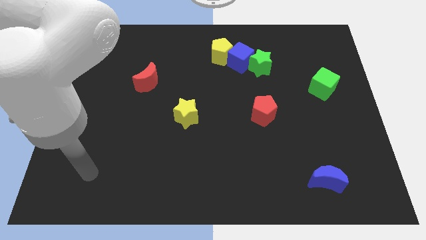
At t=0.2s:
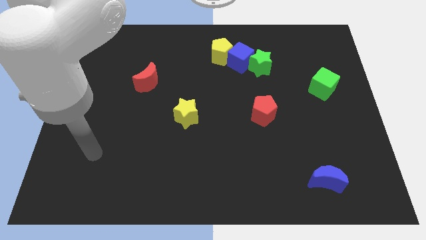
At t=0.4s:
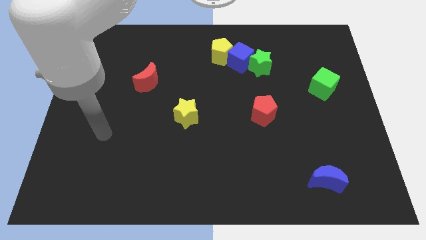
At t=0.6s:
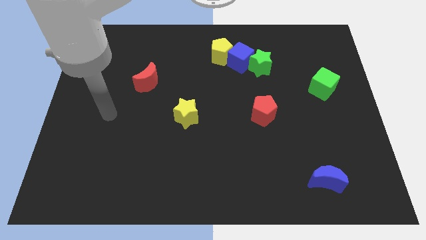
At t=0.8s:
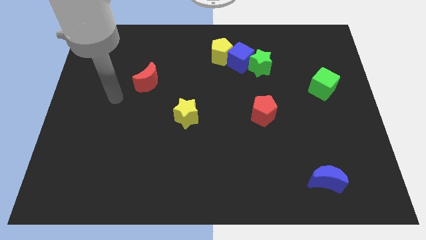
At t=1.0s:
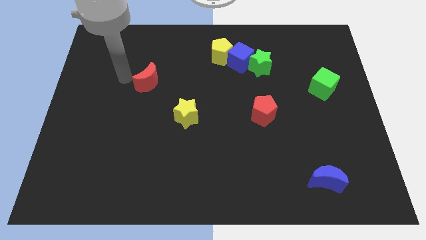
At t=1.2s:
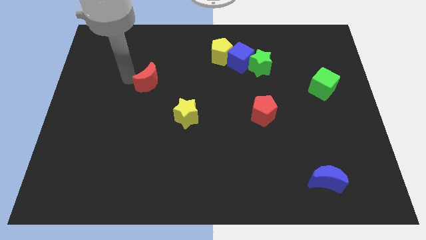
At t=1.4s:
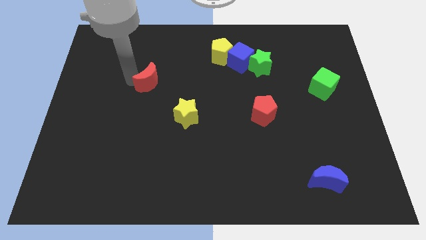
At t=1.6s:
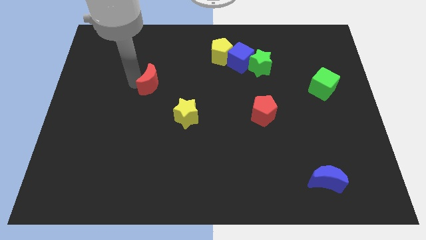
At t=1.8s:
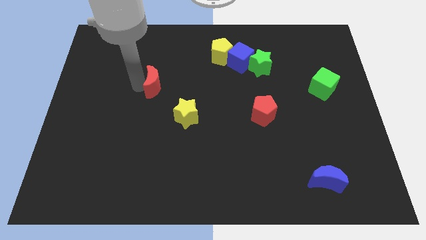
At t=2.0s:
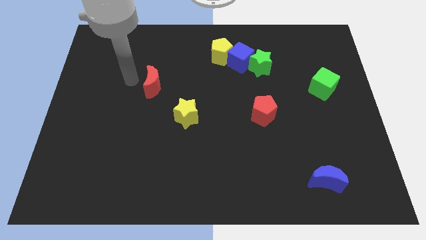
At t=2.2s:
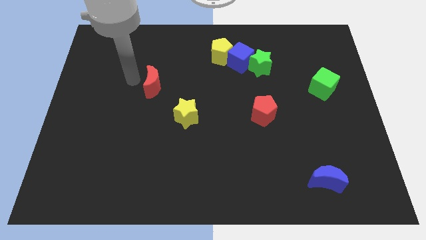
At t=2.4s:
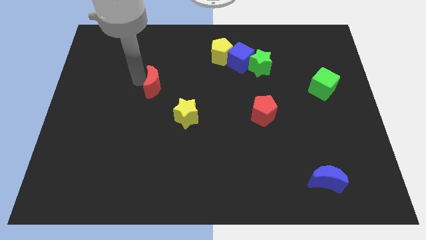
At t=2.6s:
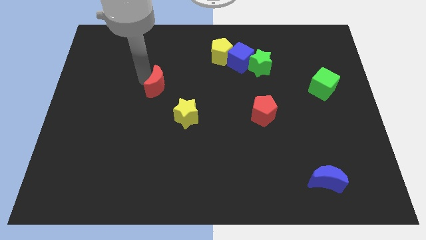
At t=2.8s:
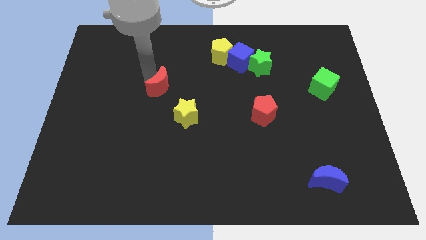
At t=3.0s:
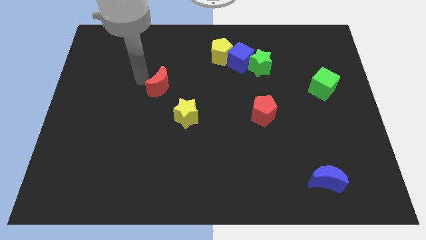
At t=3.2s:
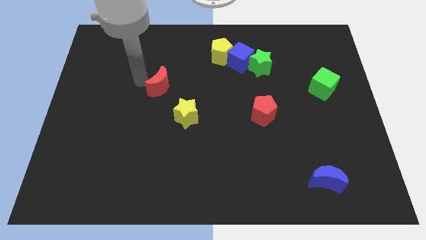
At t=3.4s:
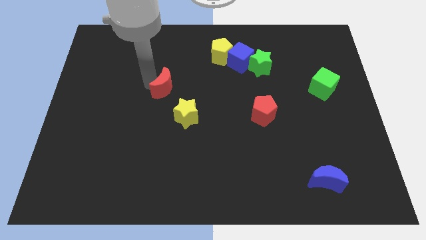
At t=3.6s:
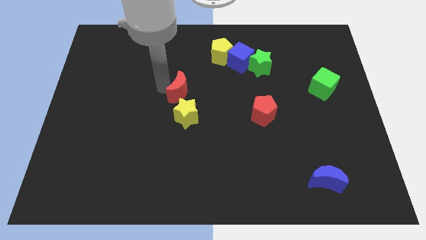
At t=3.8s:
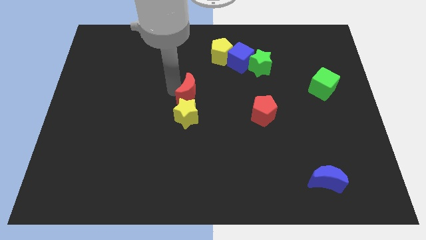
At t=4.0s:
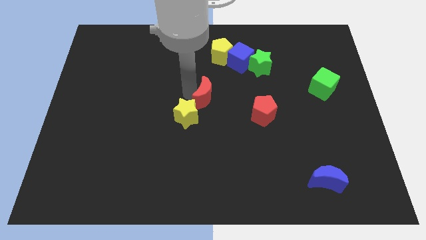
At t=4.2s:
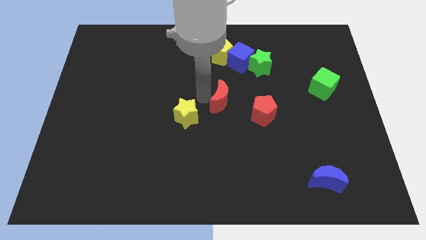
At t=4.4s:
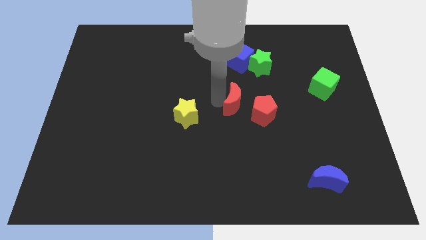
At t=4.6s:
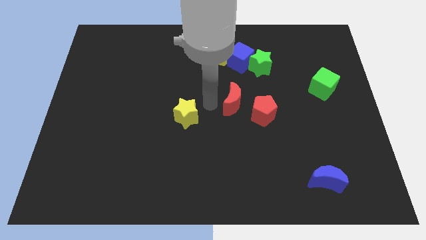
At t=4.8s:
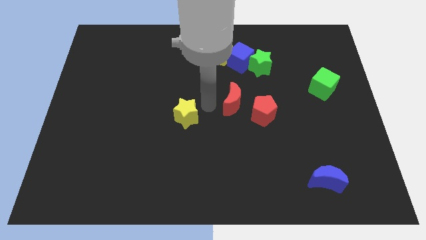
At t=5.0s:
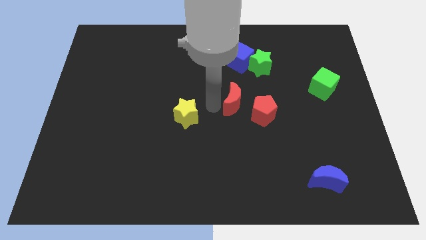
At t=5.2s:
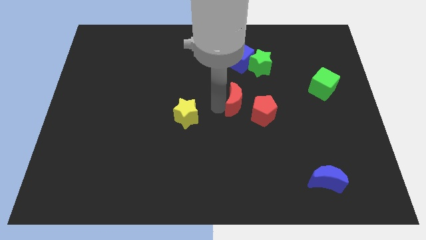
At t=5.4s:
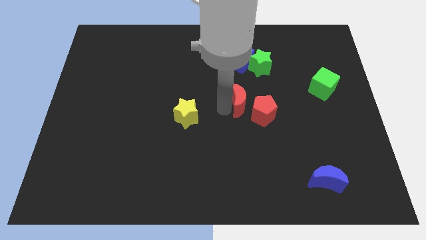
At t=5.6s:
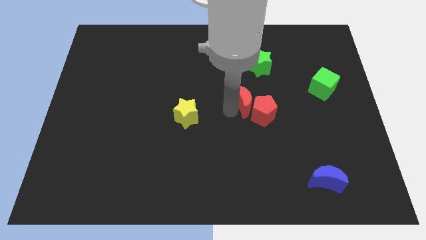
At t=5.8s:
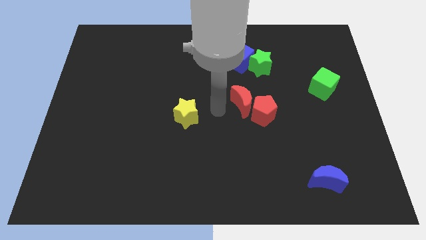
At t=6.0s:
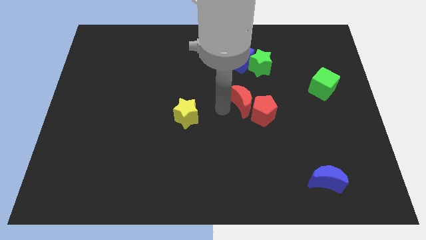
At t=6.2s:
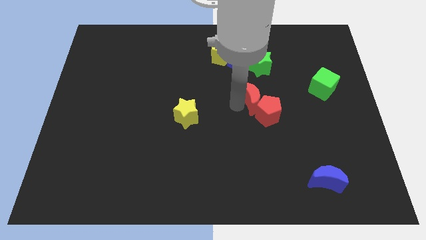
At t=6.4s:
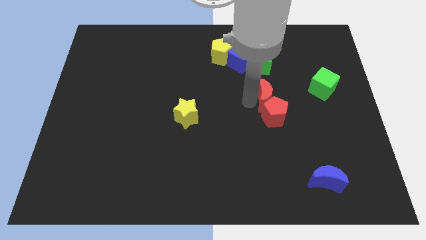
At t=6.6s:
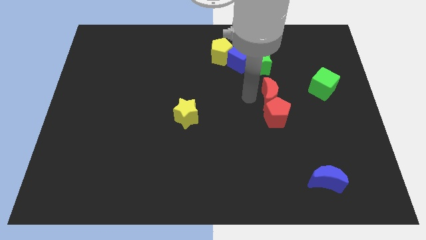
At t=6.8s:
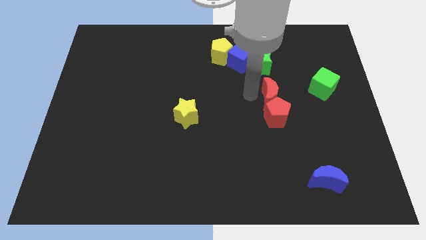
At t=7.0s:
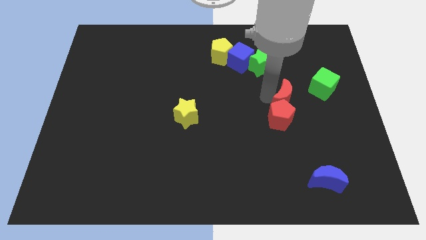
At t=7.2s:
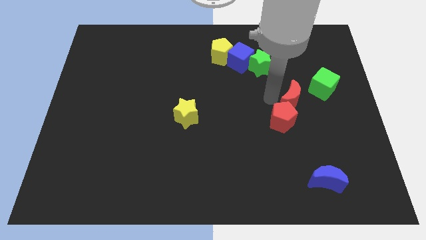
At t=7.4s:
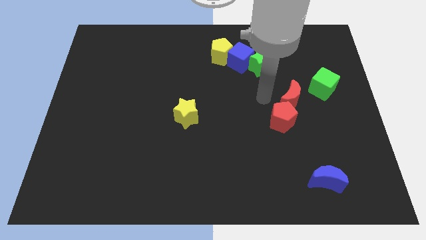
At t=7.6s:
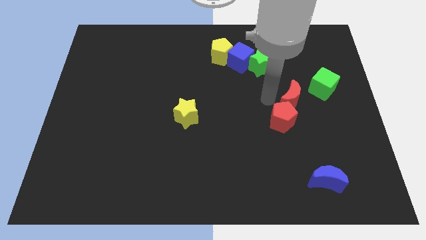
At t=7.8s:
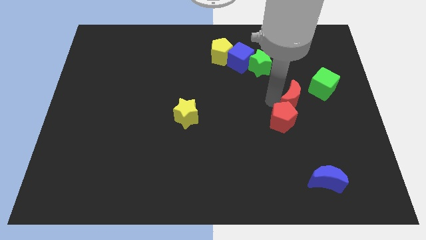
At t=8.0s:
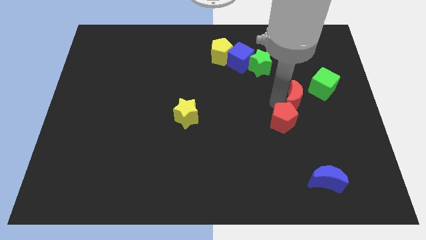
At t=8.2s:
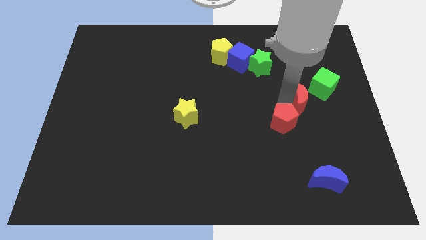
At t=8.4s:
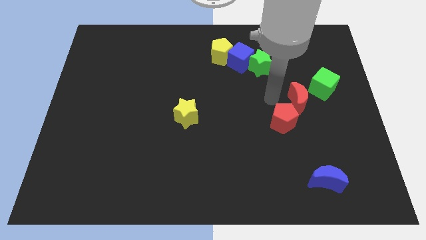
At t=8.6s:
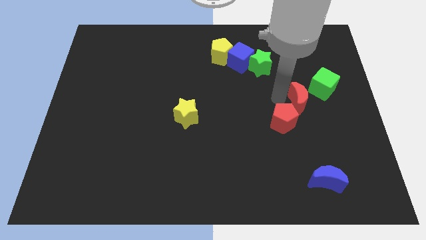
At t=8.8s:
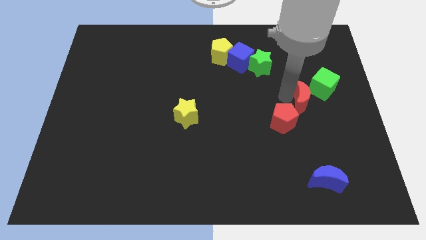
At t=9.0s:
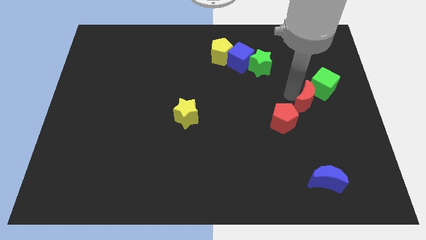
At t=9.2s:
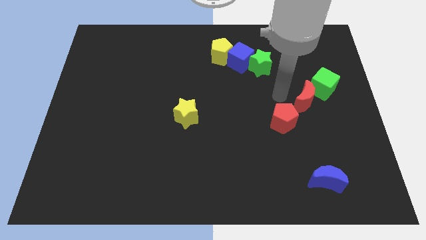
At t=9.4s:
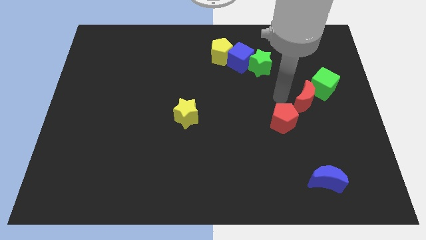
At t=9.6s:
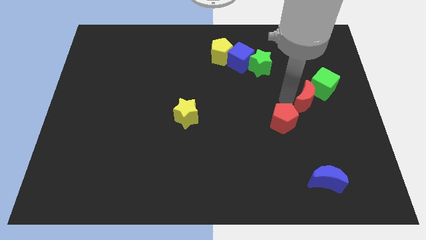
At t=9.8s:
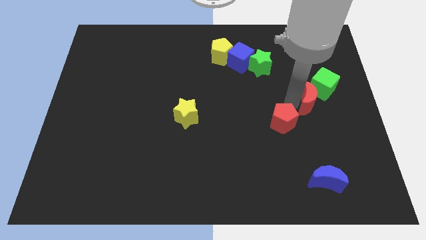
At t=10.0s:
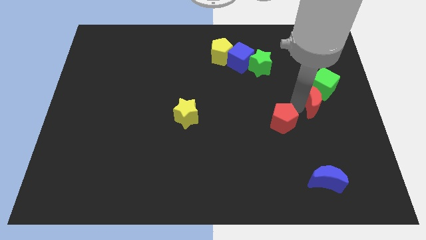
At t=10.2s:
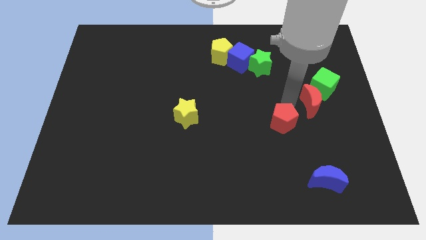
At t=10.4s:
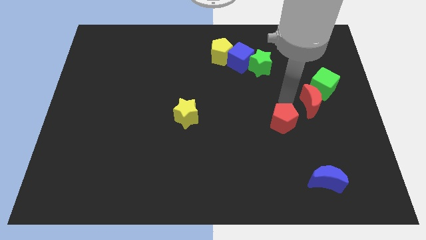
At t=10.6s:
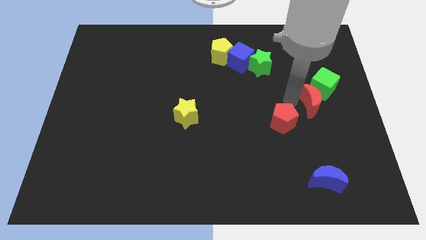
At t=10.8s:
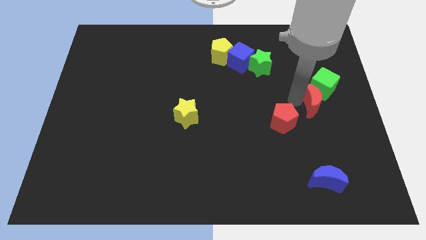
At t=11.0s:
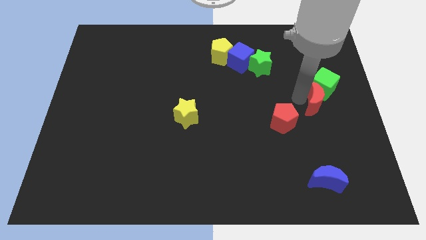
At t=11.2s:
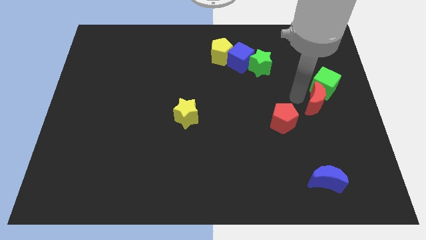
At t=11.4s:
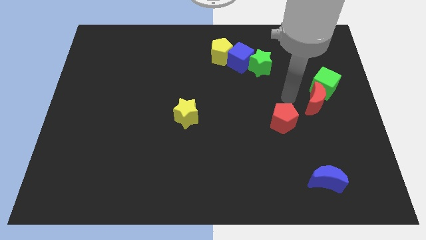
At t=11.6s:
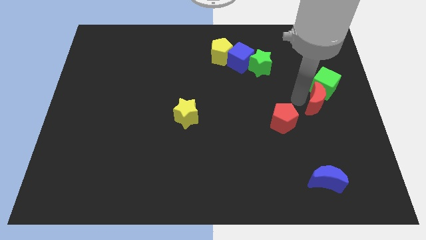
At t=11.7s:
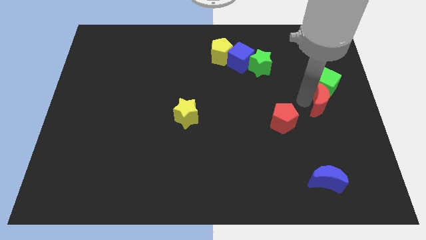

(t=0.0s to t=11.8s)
slide the red moon to the center right

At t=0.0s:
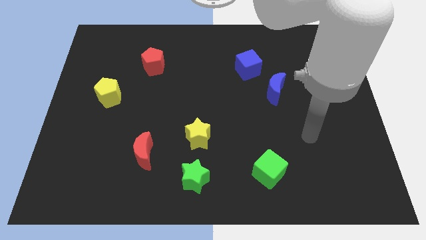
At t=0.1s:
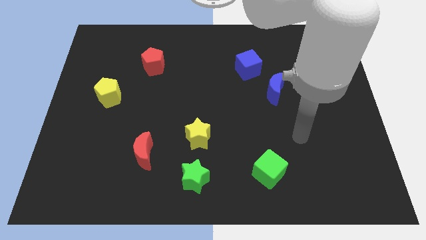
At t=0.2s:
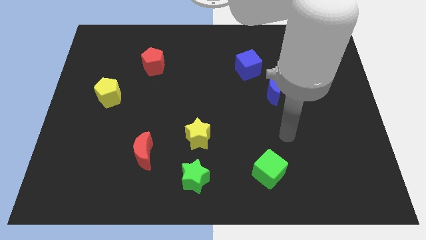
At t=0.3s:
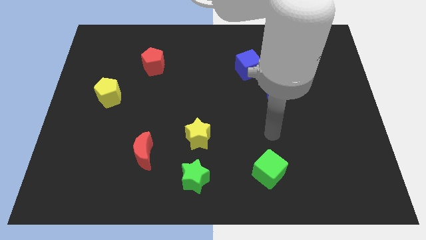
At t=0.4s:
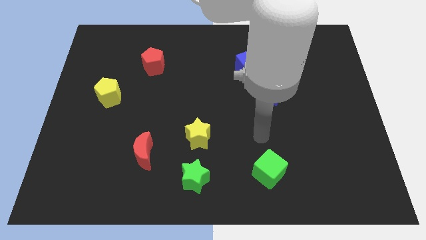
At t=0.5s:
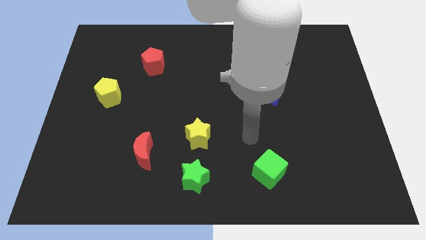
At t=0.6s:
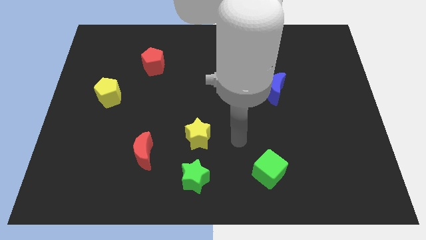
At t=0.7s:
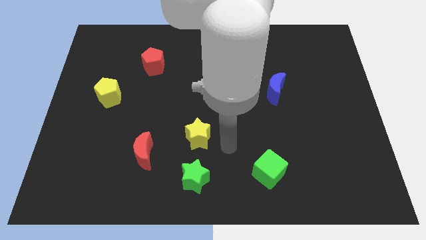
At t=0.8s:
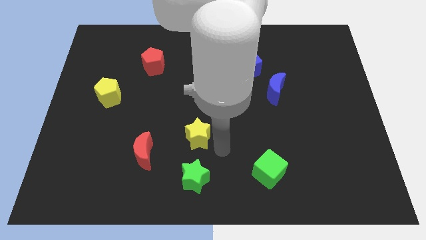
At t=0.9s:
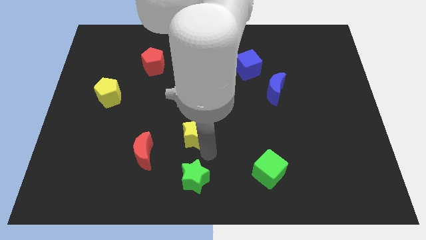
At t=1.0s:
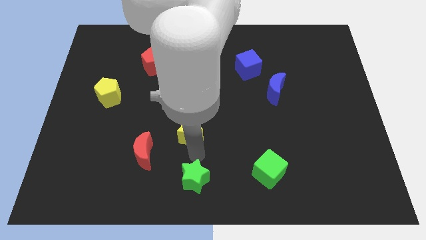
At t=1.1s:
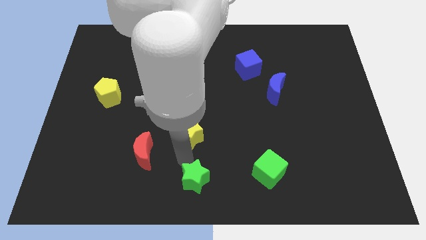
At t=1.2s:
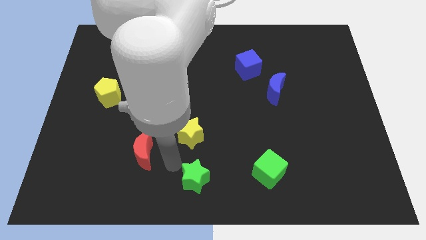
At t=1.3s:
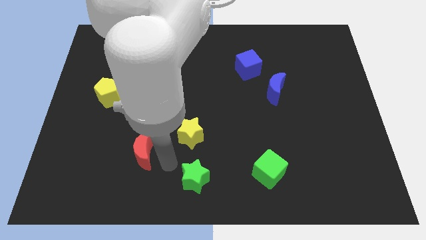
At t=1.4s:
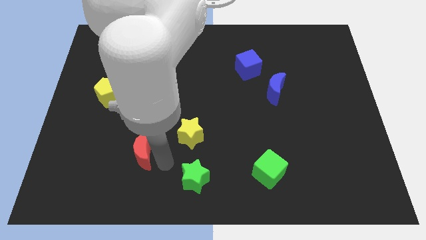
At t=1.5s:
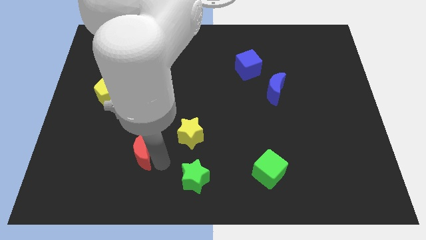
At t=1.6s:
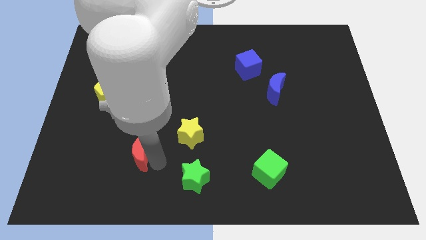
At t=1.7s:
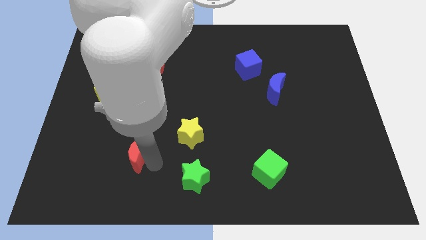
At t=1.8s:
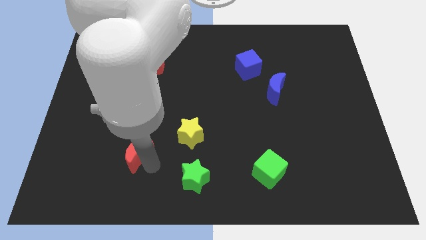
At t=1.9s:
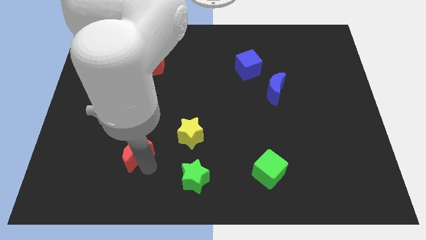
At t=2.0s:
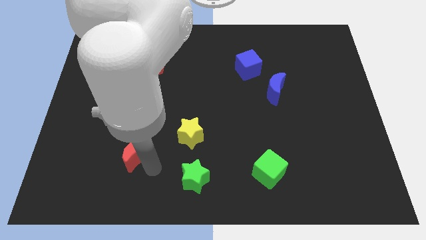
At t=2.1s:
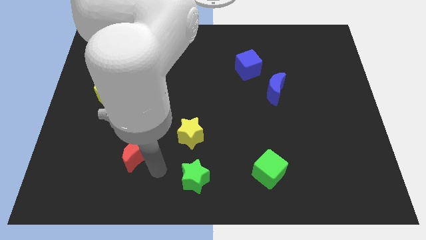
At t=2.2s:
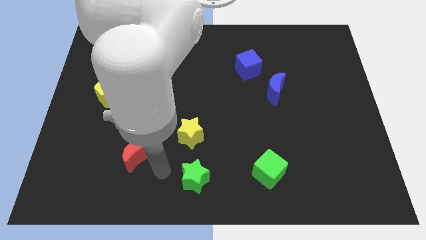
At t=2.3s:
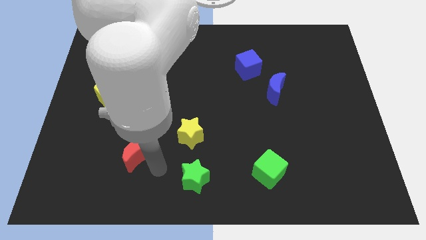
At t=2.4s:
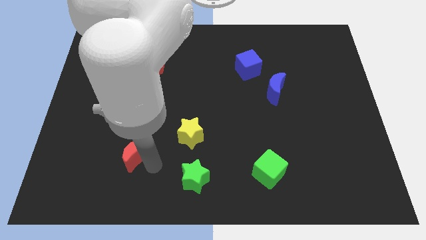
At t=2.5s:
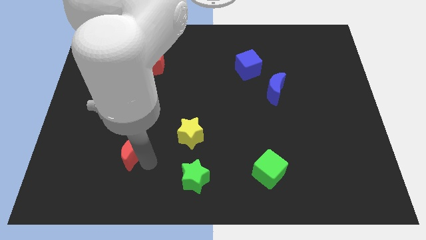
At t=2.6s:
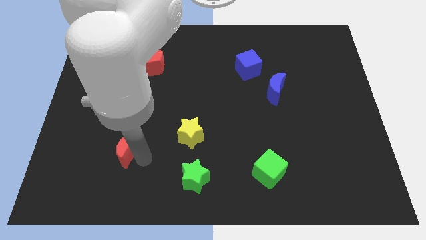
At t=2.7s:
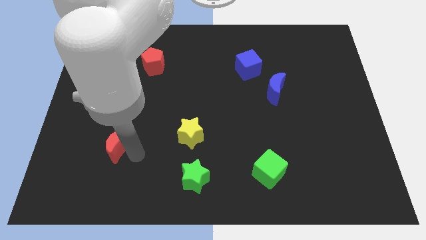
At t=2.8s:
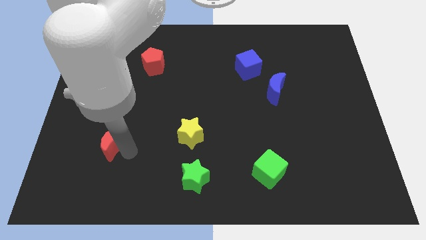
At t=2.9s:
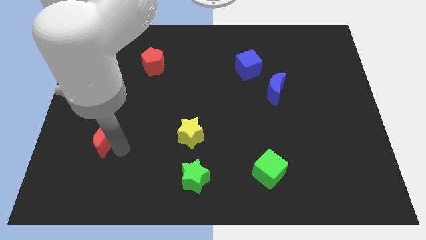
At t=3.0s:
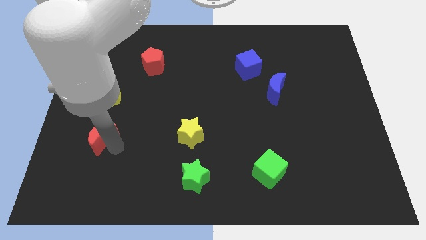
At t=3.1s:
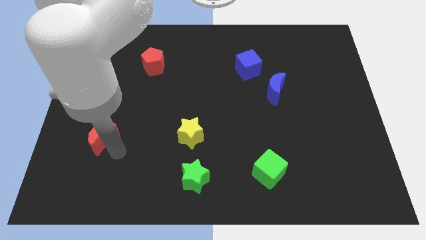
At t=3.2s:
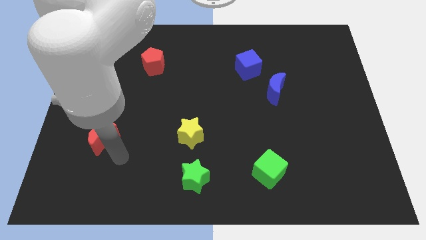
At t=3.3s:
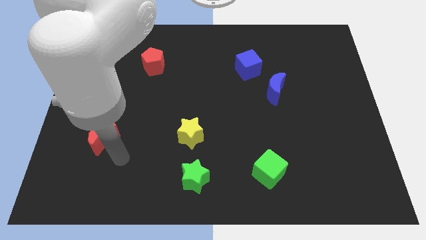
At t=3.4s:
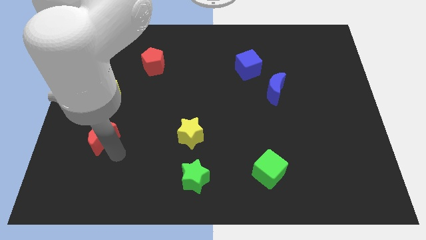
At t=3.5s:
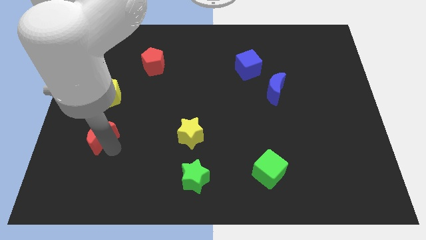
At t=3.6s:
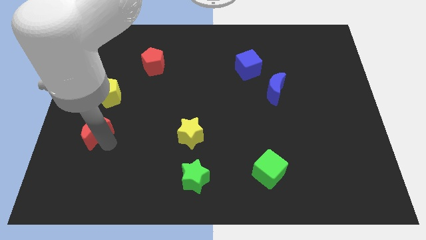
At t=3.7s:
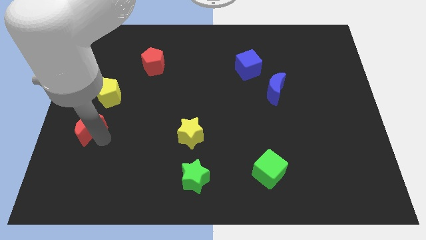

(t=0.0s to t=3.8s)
put the red moon to the left side
